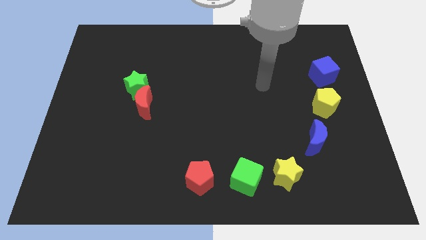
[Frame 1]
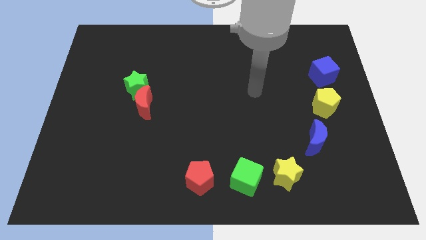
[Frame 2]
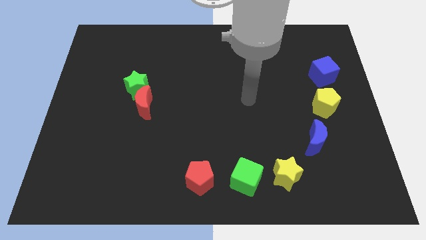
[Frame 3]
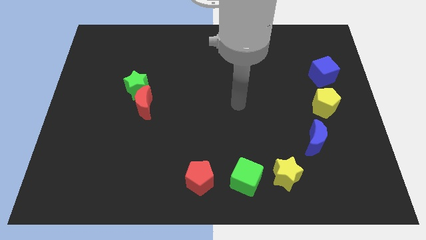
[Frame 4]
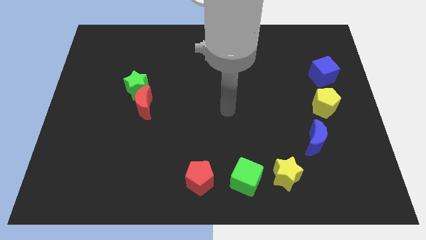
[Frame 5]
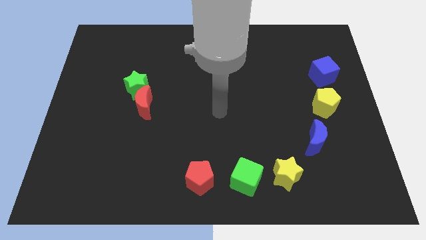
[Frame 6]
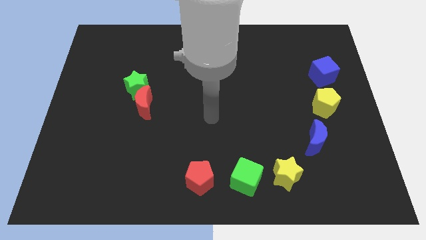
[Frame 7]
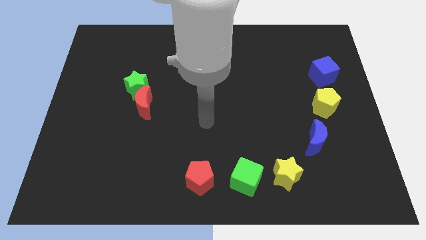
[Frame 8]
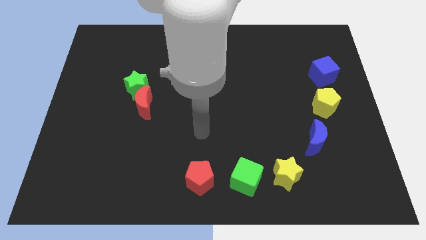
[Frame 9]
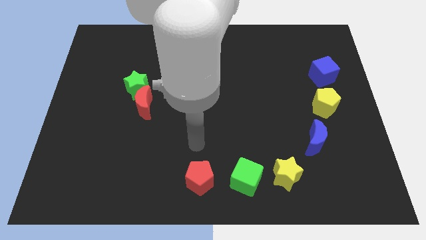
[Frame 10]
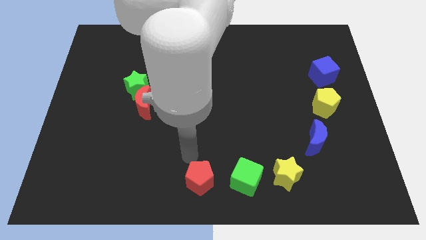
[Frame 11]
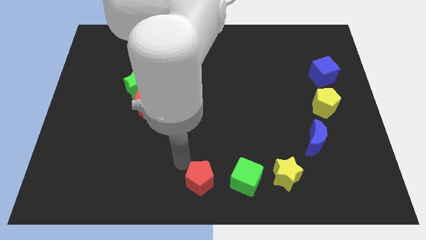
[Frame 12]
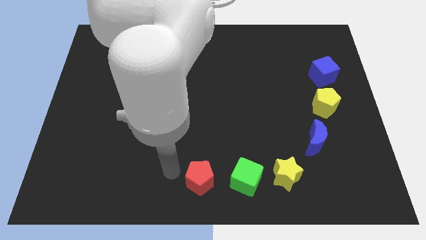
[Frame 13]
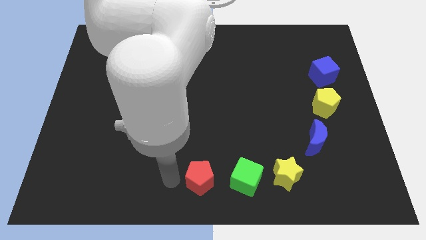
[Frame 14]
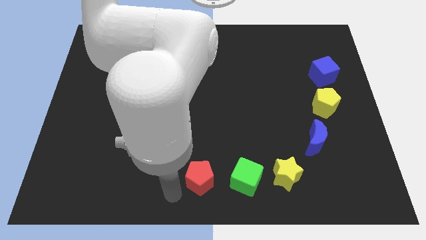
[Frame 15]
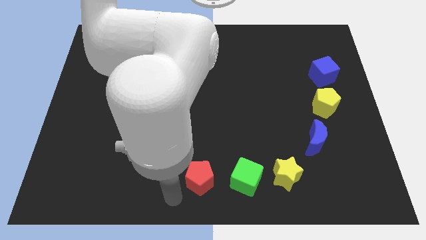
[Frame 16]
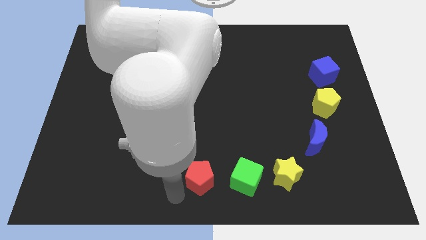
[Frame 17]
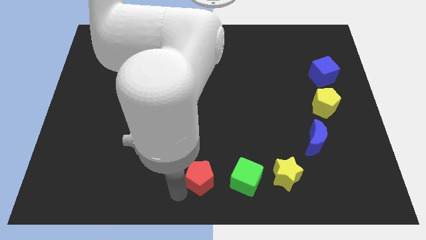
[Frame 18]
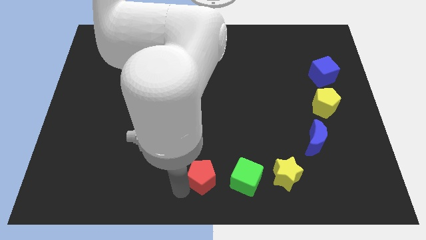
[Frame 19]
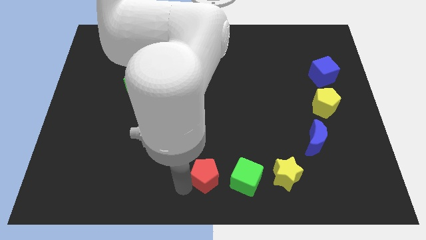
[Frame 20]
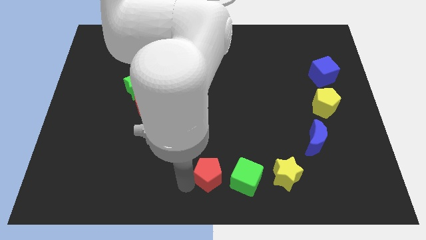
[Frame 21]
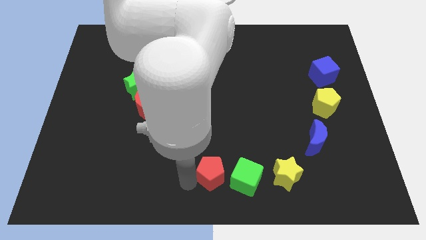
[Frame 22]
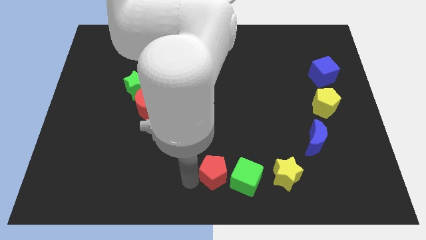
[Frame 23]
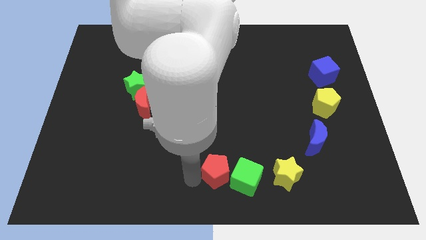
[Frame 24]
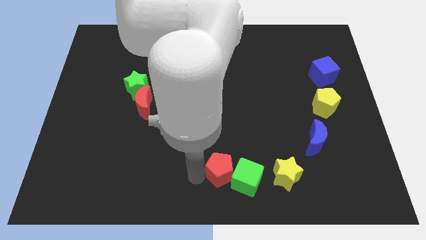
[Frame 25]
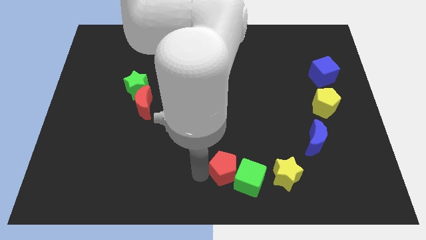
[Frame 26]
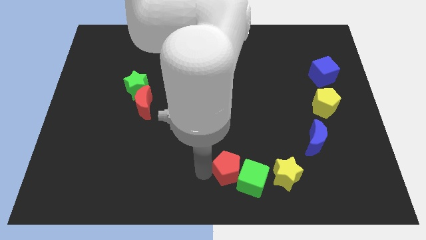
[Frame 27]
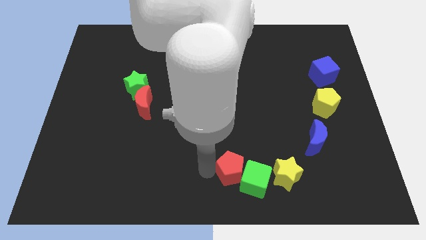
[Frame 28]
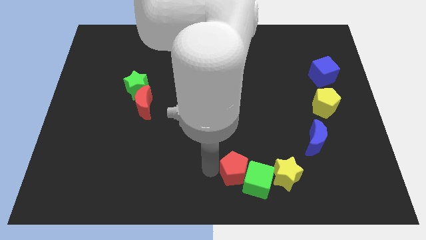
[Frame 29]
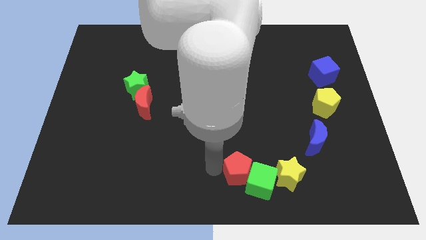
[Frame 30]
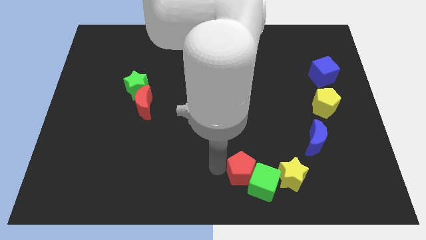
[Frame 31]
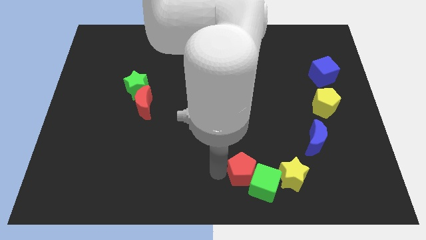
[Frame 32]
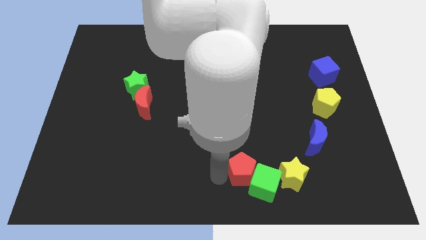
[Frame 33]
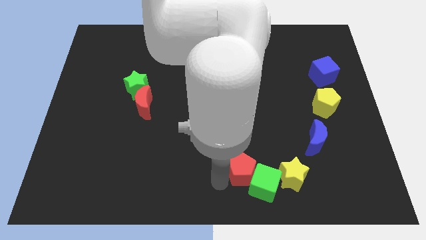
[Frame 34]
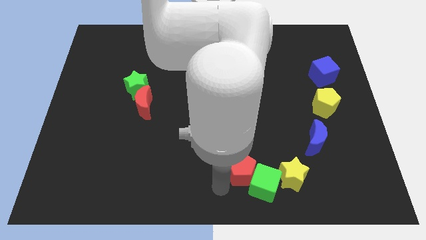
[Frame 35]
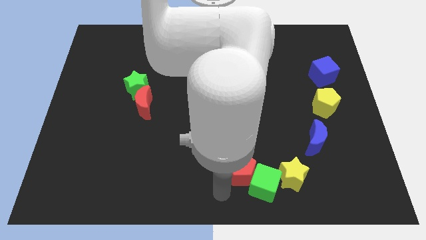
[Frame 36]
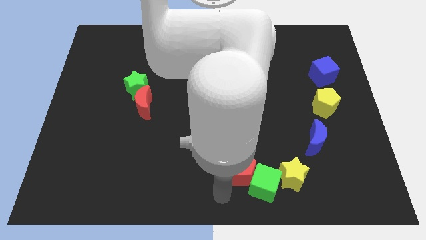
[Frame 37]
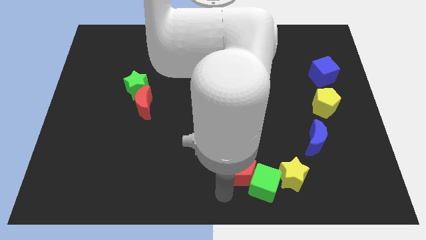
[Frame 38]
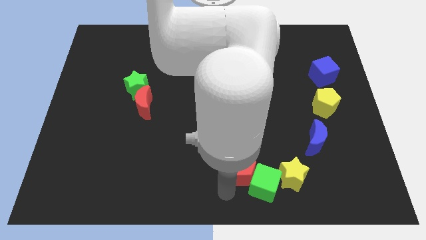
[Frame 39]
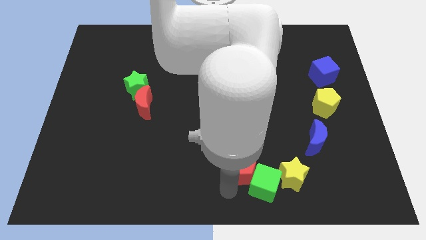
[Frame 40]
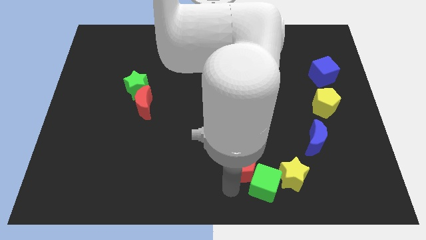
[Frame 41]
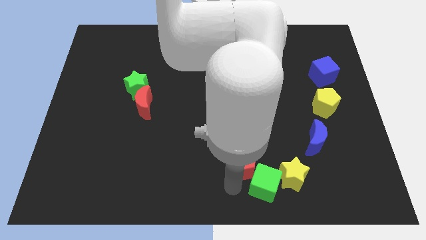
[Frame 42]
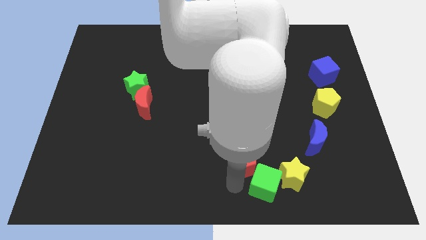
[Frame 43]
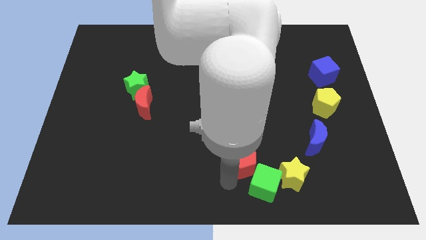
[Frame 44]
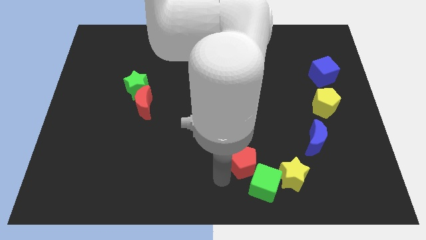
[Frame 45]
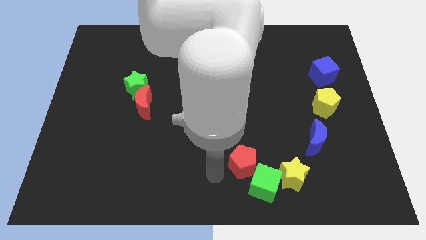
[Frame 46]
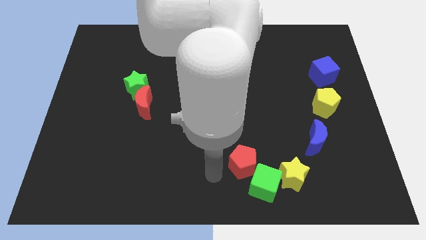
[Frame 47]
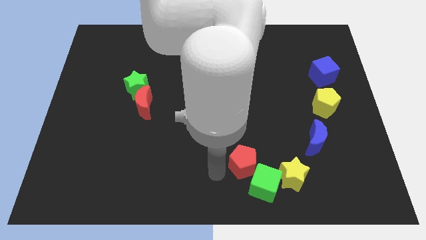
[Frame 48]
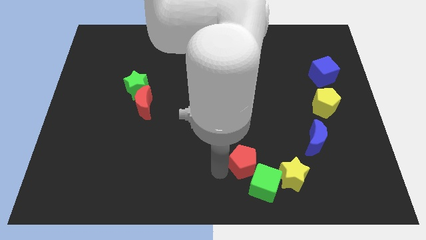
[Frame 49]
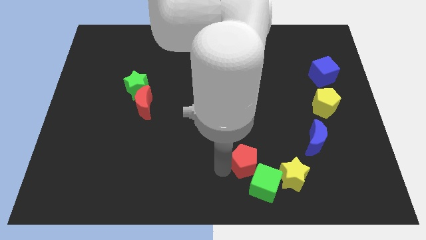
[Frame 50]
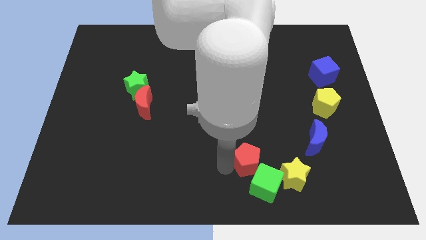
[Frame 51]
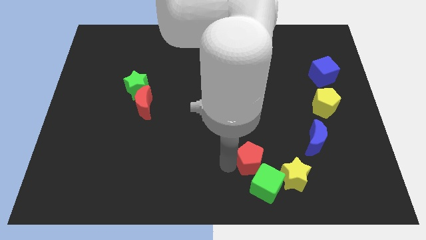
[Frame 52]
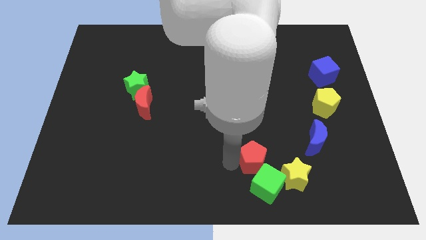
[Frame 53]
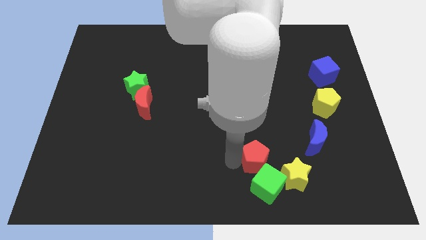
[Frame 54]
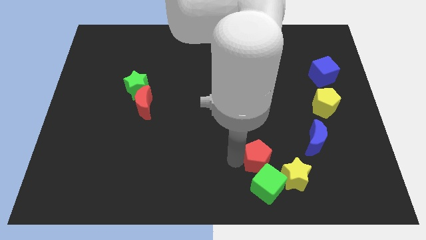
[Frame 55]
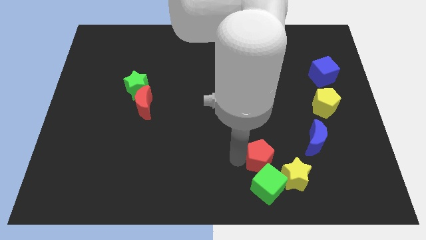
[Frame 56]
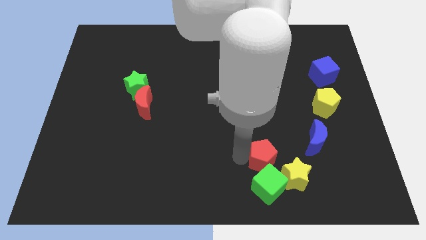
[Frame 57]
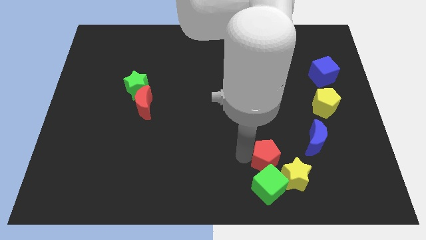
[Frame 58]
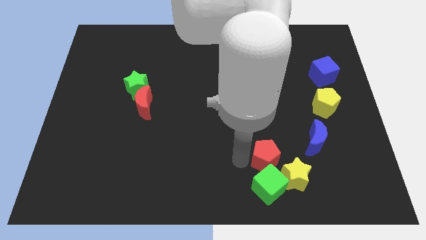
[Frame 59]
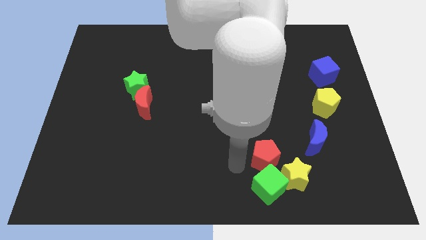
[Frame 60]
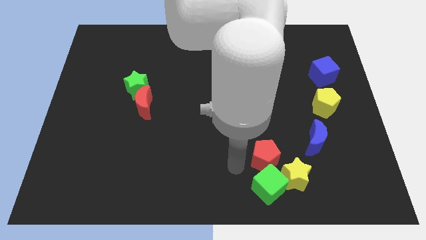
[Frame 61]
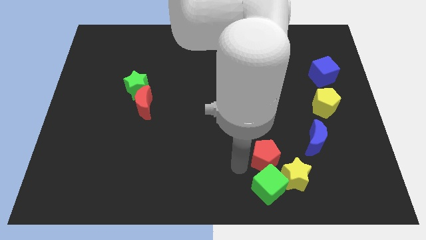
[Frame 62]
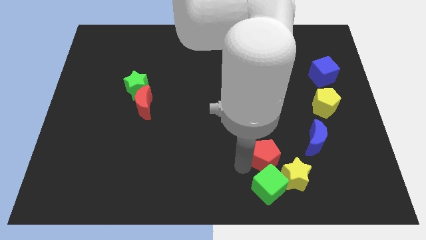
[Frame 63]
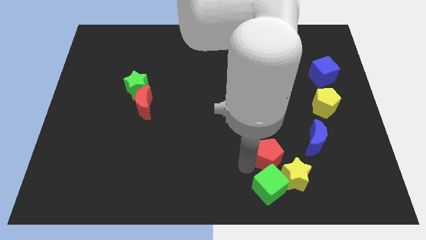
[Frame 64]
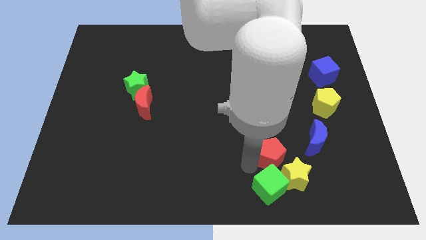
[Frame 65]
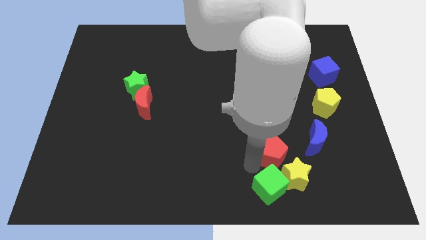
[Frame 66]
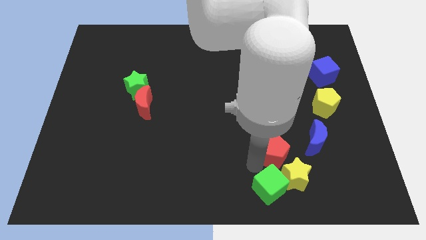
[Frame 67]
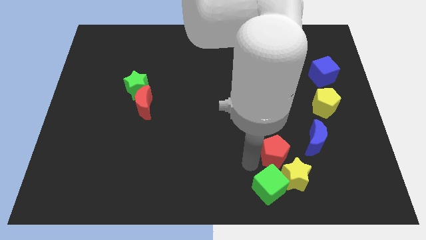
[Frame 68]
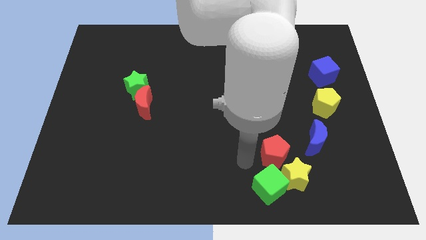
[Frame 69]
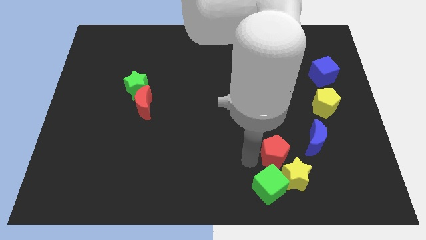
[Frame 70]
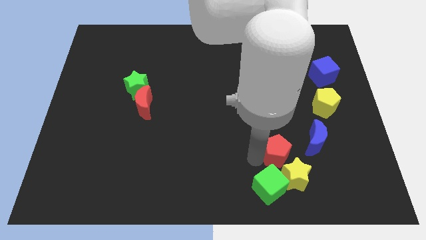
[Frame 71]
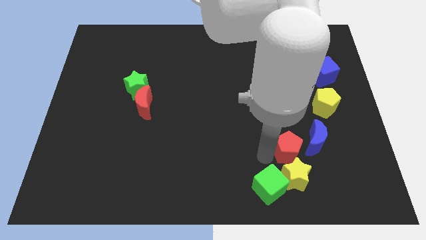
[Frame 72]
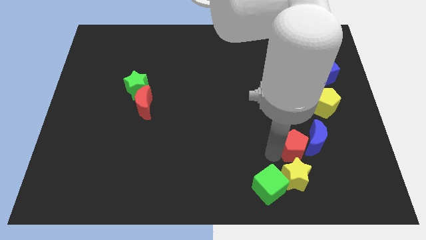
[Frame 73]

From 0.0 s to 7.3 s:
slide the red pentagon close to the blue moon
